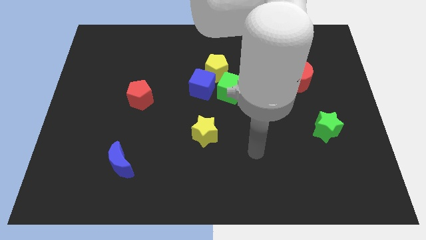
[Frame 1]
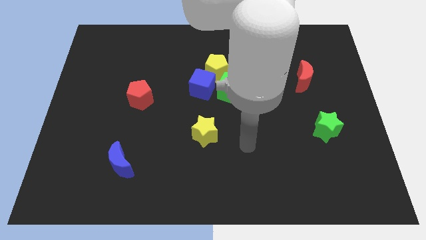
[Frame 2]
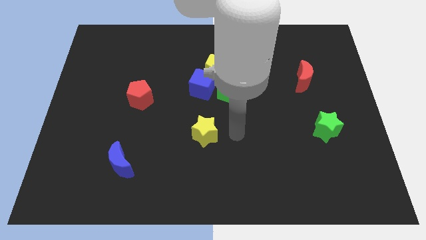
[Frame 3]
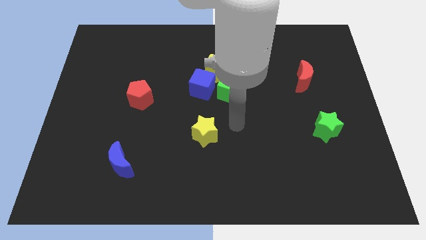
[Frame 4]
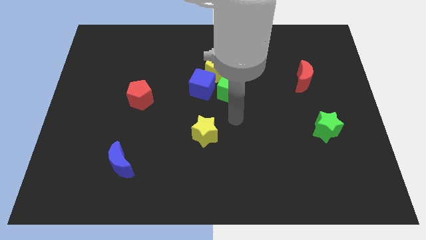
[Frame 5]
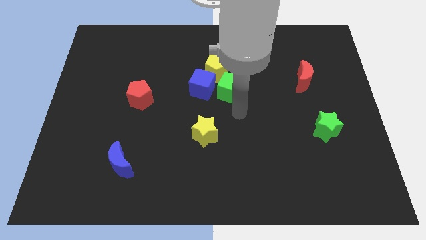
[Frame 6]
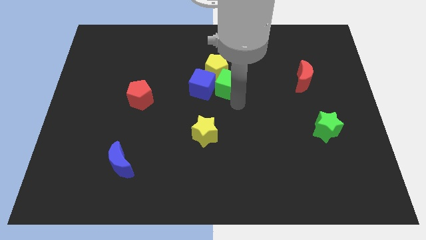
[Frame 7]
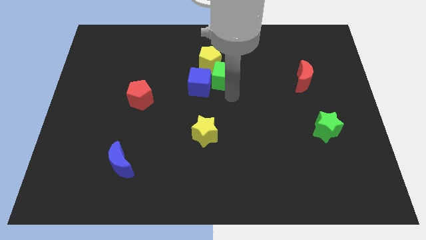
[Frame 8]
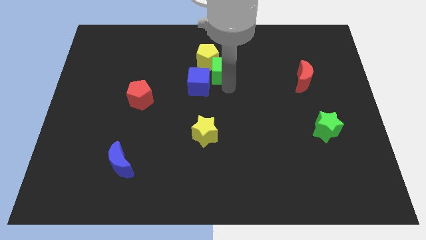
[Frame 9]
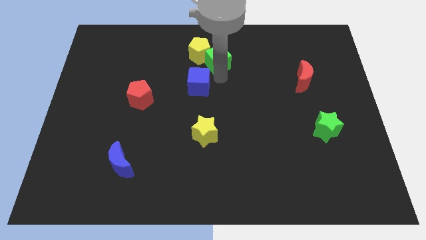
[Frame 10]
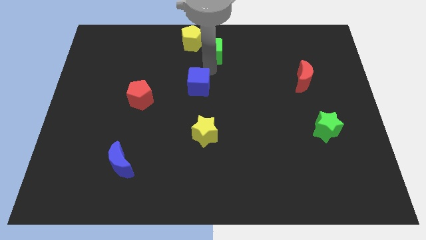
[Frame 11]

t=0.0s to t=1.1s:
pull the blue cube apart from the yellow pentagon and green cube

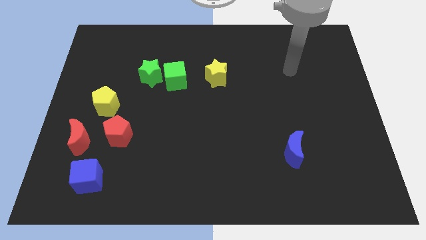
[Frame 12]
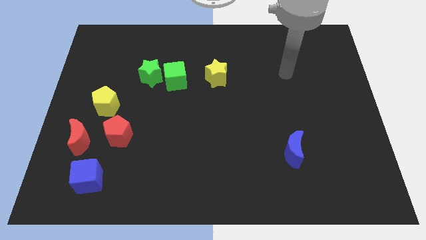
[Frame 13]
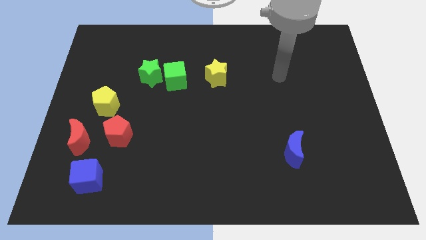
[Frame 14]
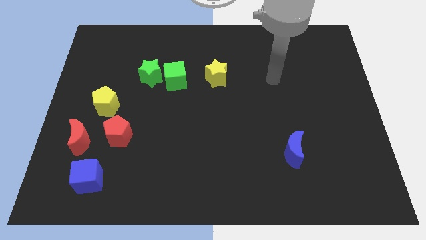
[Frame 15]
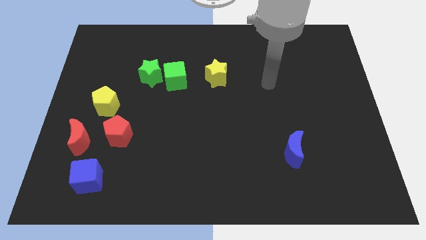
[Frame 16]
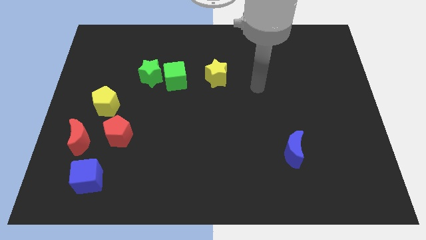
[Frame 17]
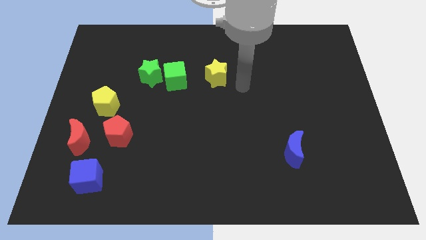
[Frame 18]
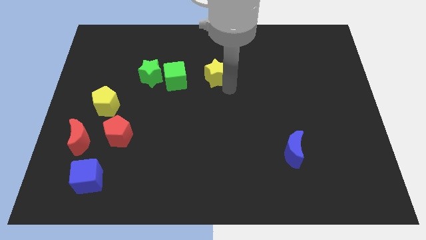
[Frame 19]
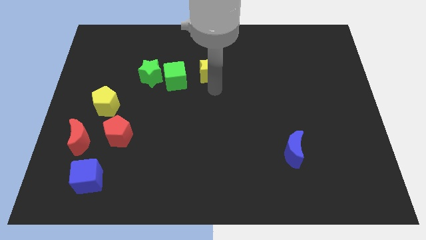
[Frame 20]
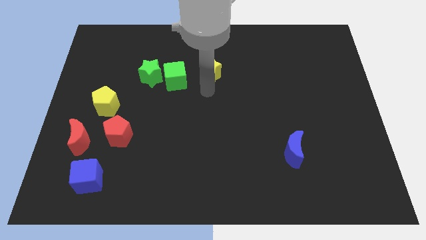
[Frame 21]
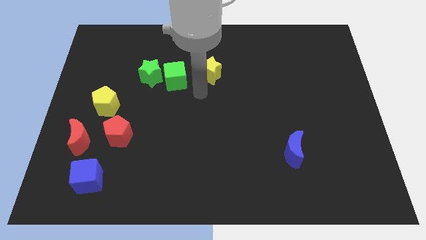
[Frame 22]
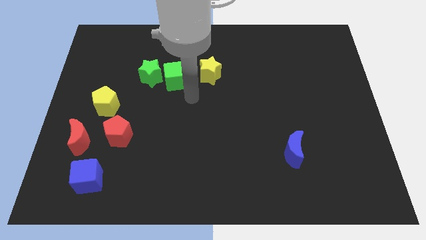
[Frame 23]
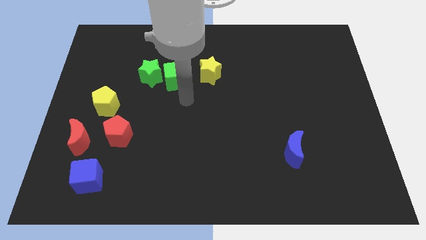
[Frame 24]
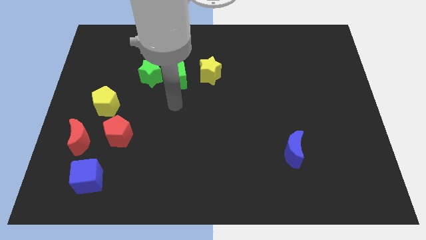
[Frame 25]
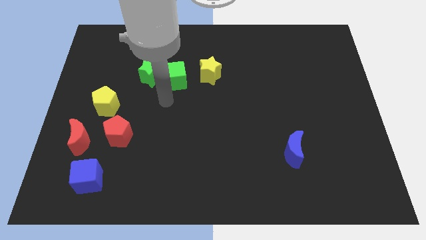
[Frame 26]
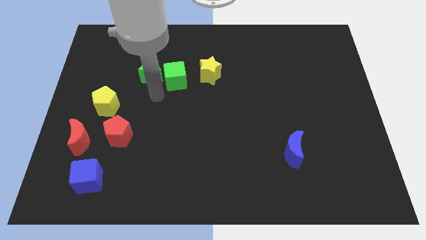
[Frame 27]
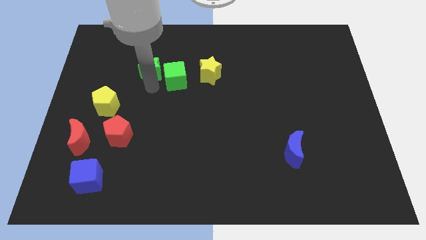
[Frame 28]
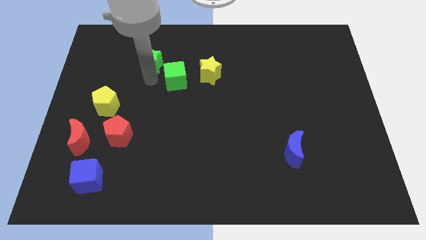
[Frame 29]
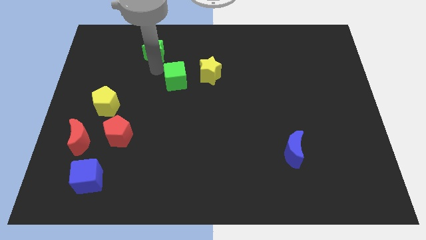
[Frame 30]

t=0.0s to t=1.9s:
pull the green cube apart from the green star

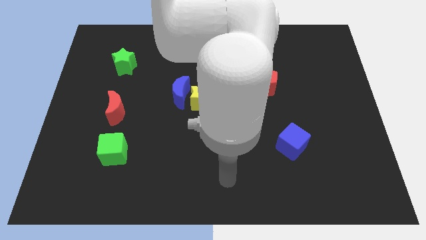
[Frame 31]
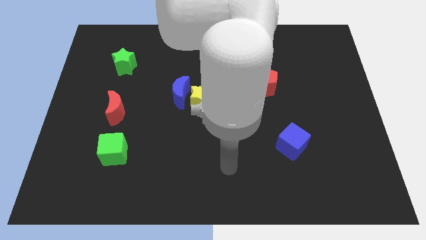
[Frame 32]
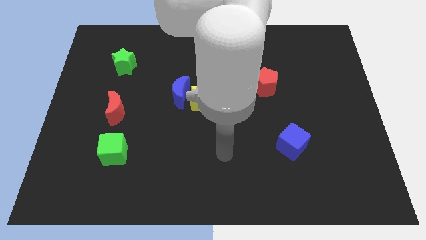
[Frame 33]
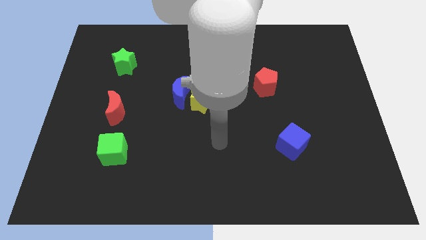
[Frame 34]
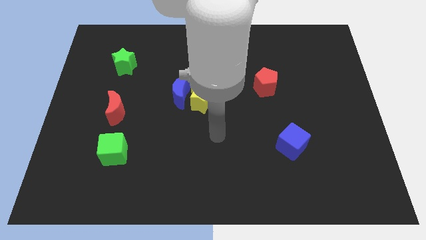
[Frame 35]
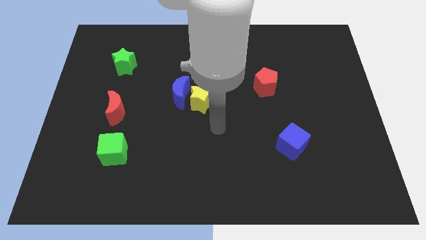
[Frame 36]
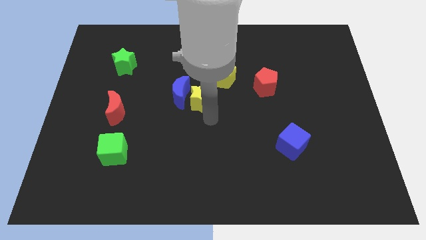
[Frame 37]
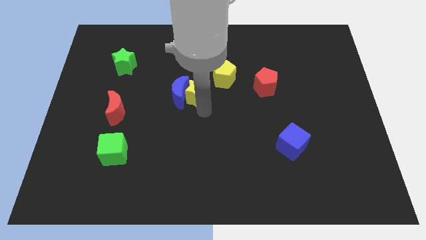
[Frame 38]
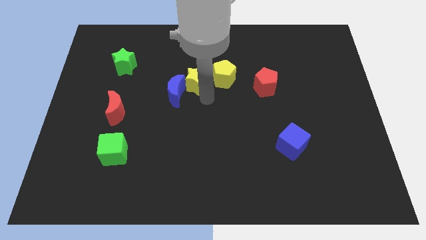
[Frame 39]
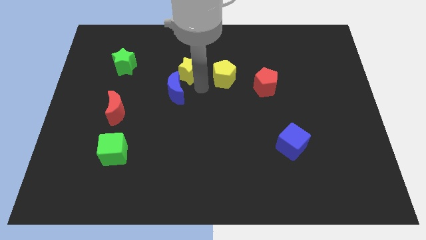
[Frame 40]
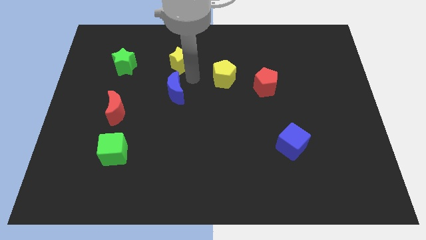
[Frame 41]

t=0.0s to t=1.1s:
pull the blue moon apart from the yellow star

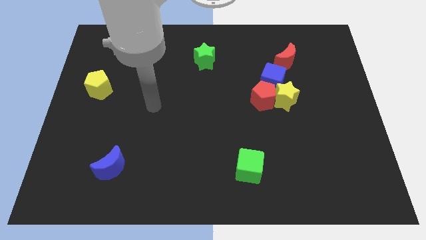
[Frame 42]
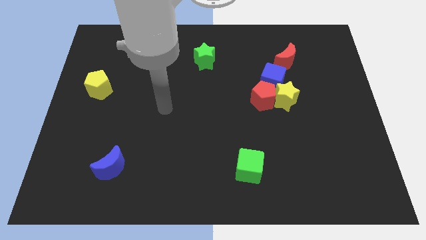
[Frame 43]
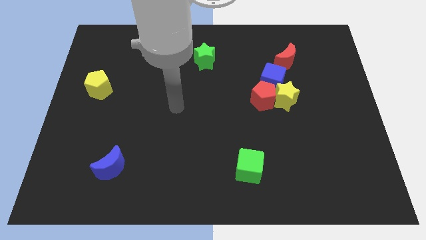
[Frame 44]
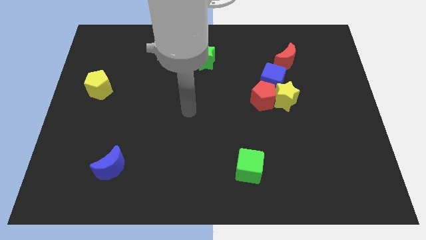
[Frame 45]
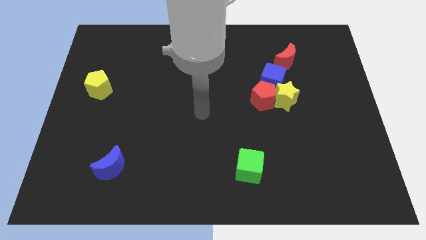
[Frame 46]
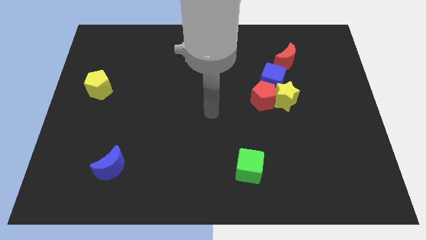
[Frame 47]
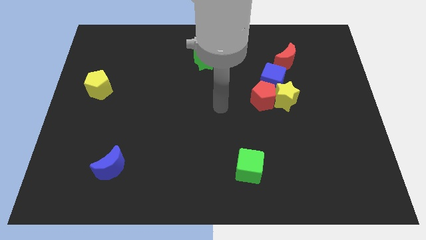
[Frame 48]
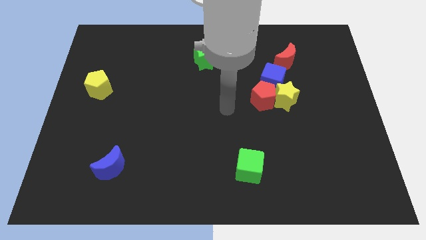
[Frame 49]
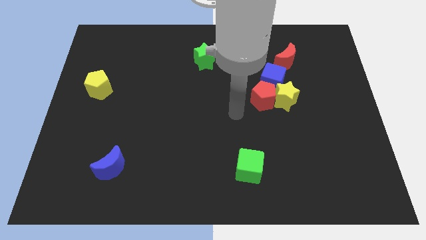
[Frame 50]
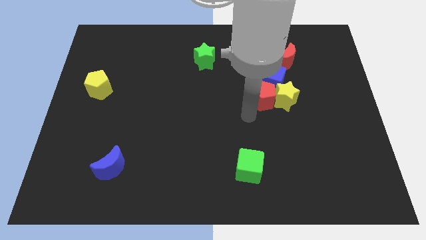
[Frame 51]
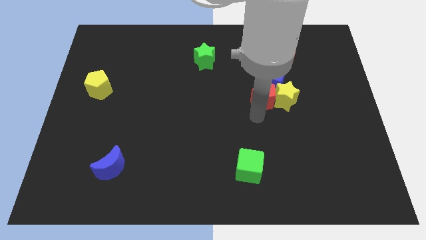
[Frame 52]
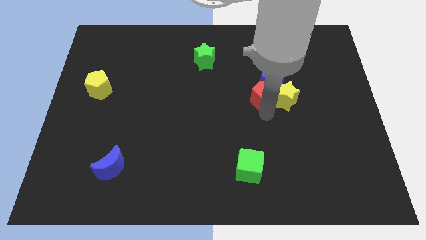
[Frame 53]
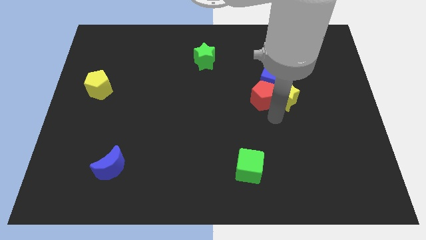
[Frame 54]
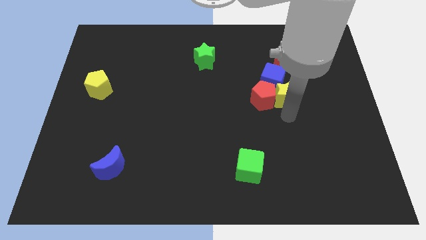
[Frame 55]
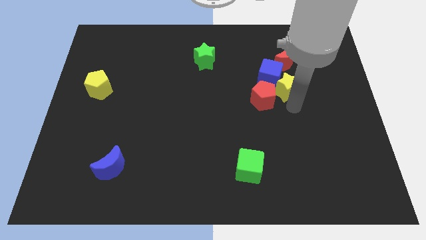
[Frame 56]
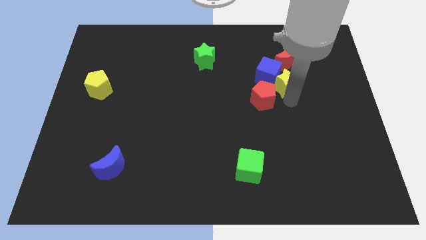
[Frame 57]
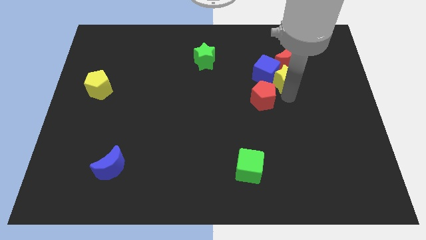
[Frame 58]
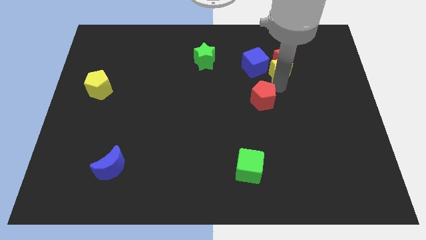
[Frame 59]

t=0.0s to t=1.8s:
separate the red pentagon from the yellow star and blue cube

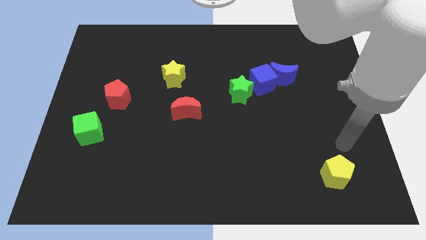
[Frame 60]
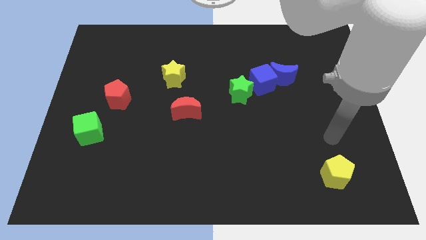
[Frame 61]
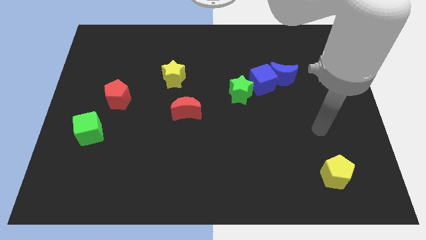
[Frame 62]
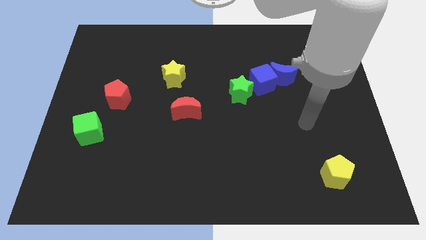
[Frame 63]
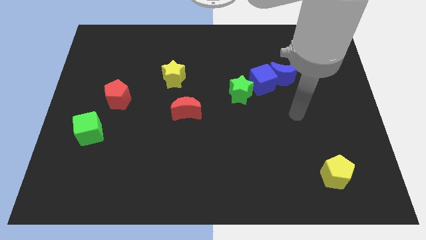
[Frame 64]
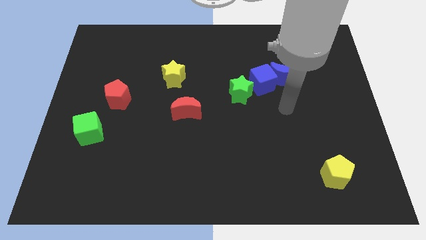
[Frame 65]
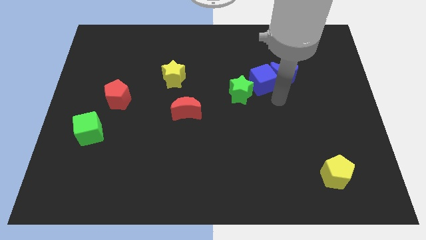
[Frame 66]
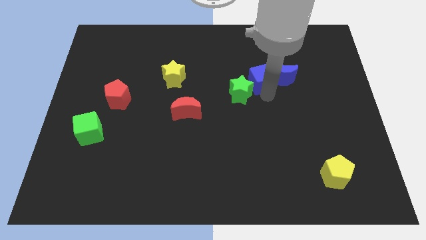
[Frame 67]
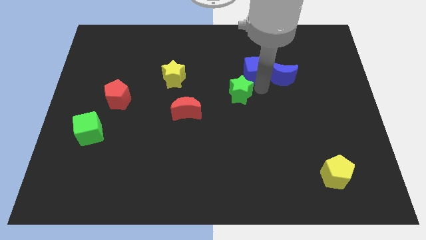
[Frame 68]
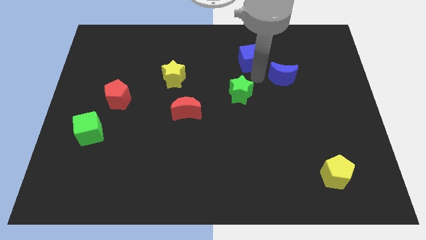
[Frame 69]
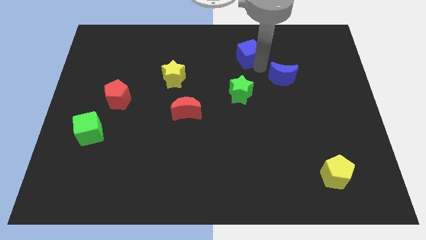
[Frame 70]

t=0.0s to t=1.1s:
move the blue moon away from the blue cube

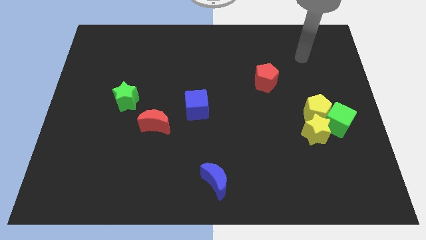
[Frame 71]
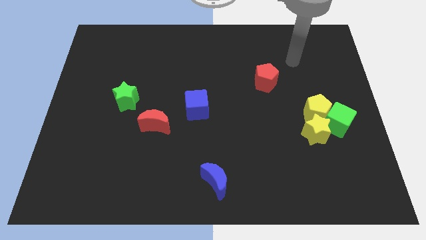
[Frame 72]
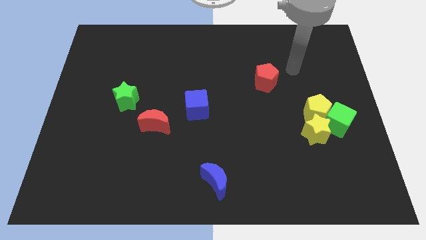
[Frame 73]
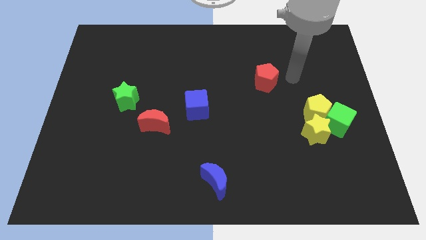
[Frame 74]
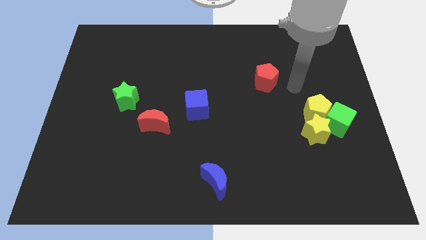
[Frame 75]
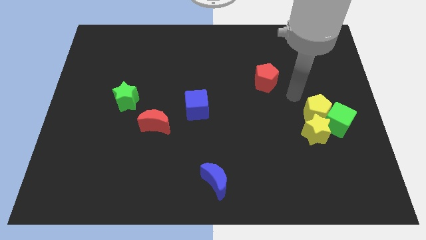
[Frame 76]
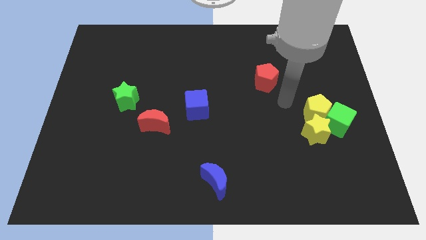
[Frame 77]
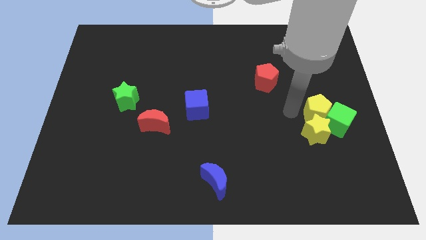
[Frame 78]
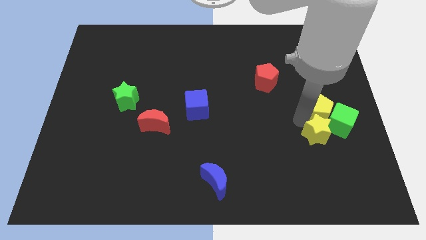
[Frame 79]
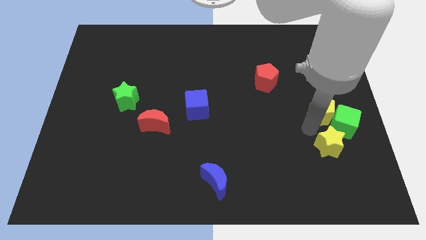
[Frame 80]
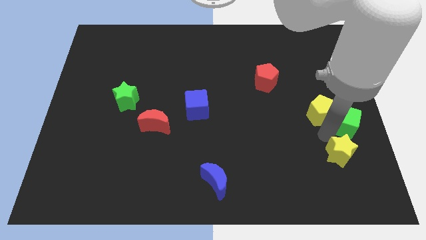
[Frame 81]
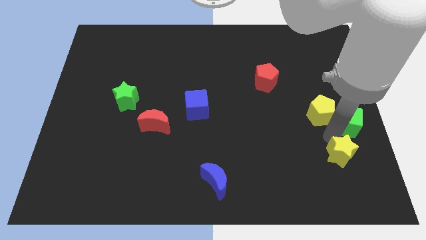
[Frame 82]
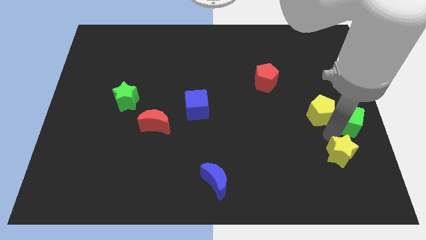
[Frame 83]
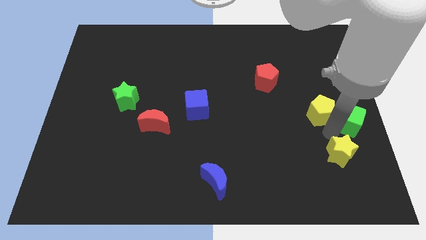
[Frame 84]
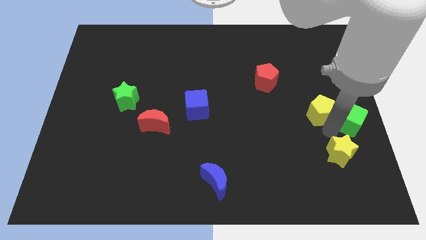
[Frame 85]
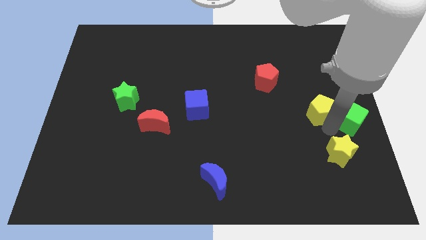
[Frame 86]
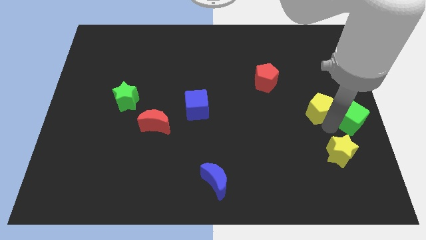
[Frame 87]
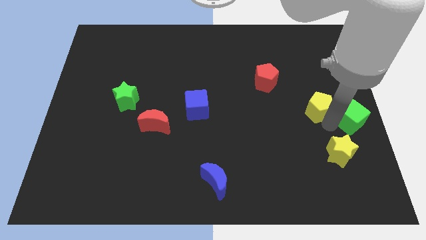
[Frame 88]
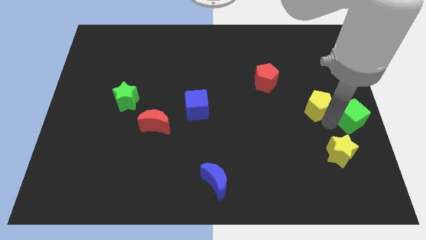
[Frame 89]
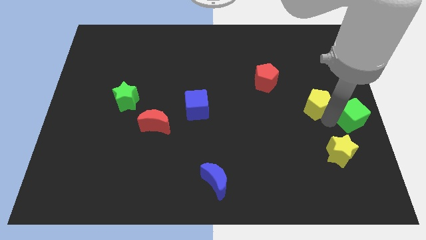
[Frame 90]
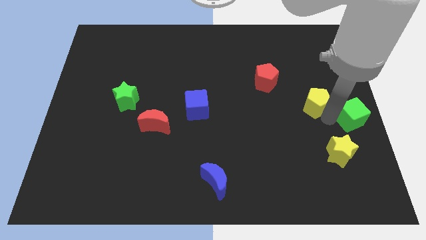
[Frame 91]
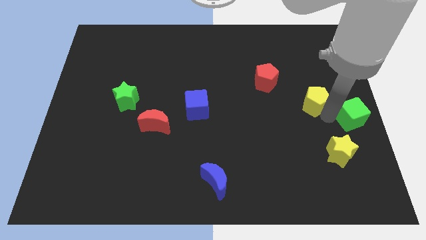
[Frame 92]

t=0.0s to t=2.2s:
pull the yellow pentagon apart from the green cube and yellow star
